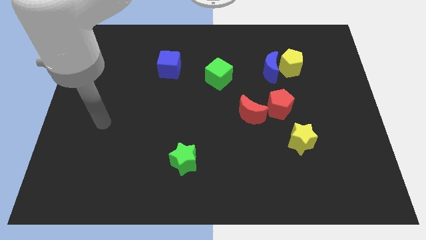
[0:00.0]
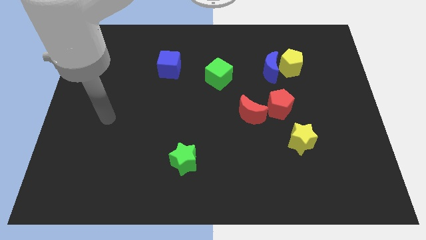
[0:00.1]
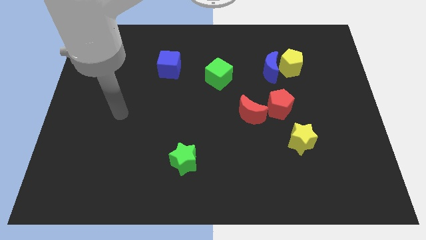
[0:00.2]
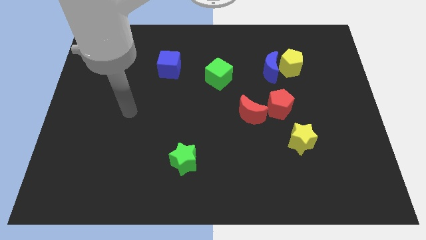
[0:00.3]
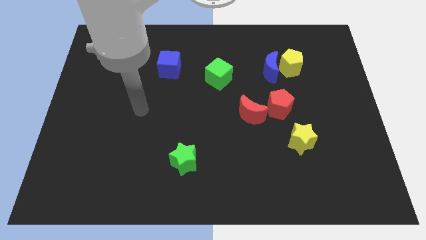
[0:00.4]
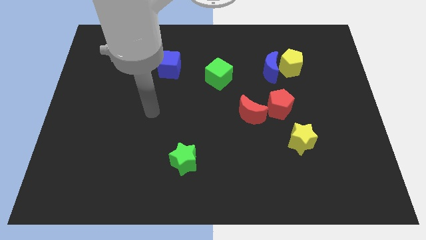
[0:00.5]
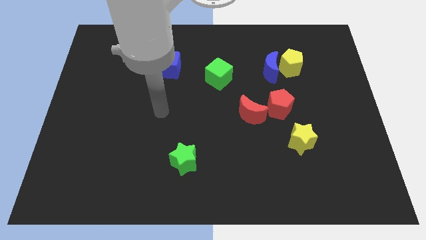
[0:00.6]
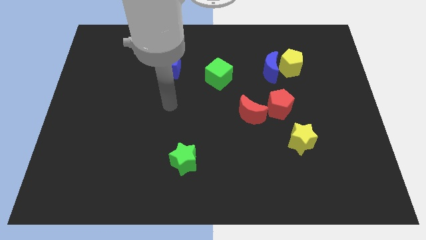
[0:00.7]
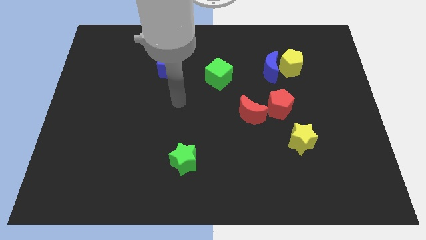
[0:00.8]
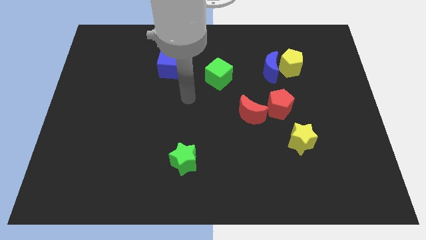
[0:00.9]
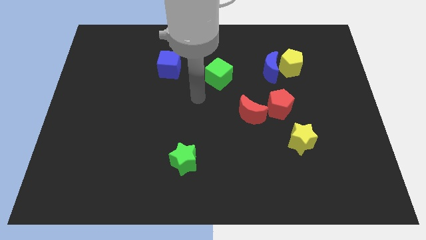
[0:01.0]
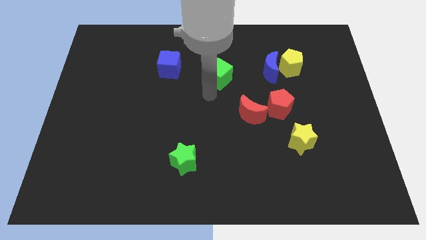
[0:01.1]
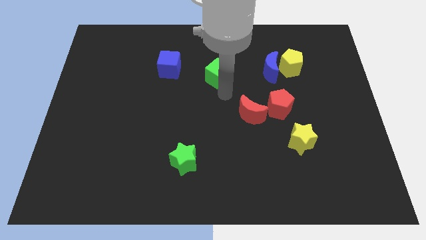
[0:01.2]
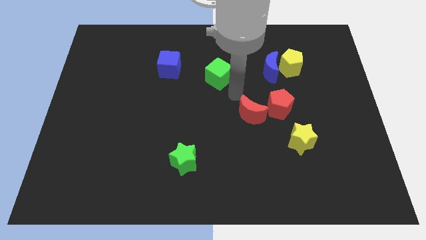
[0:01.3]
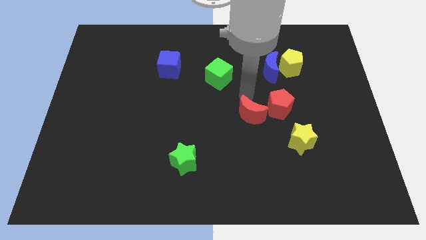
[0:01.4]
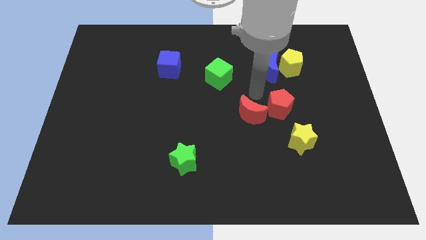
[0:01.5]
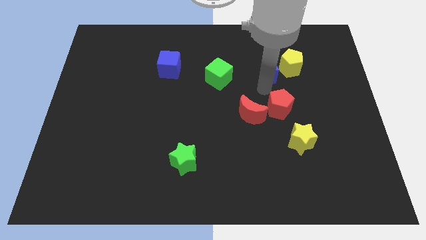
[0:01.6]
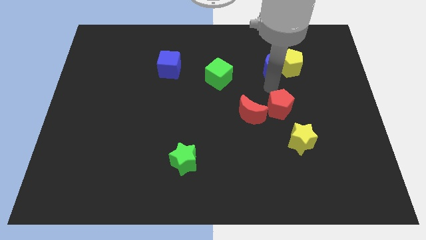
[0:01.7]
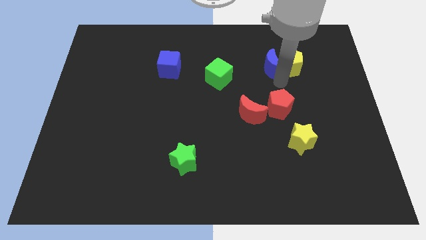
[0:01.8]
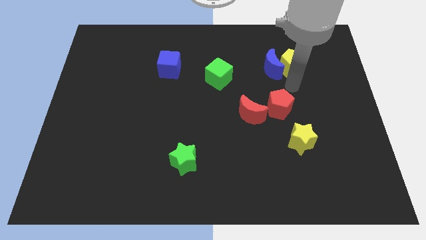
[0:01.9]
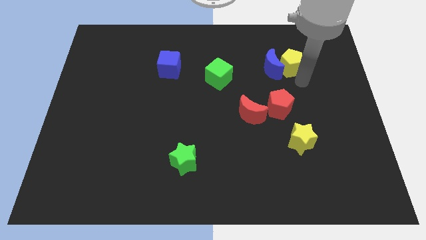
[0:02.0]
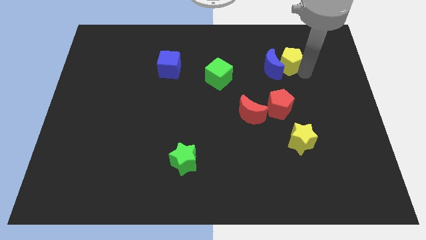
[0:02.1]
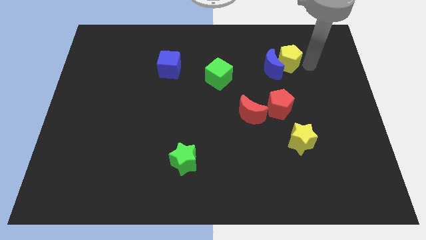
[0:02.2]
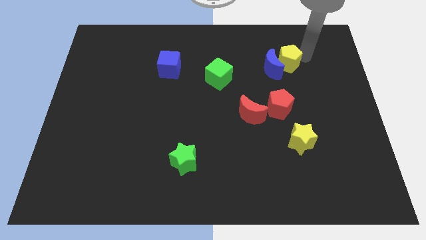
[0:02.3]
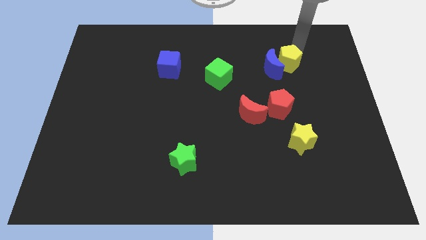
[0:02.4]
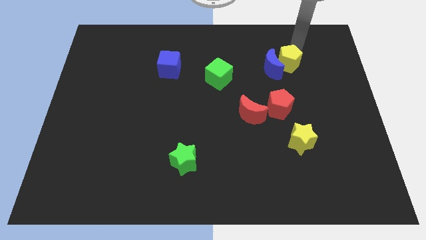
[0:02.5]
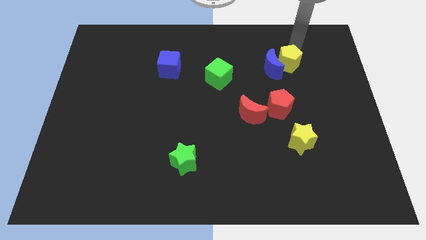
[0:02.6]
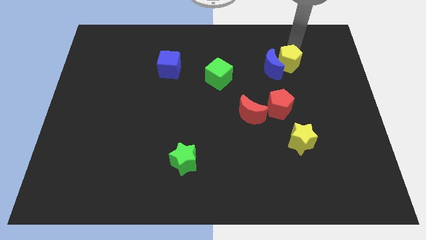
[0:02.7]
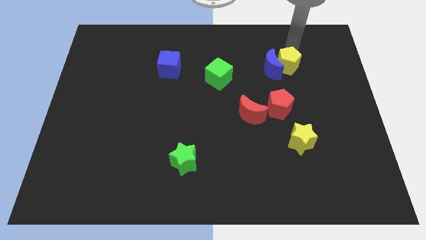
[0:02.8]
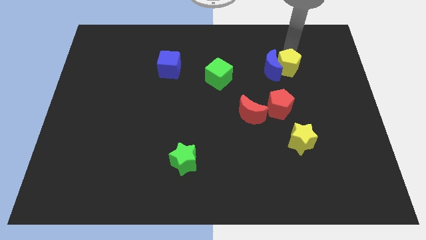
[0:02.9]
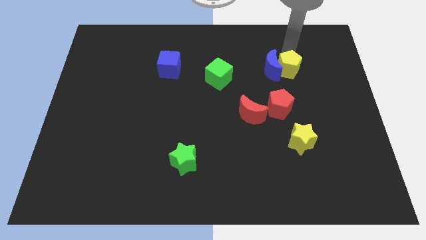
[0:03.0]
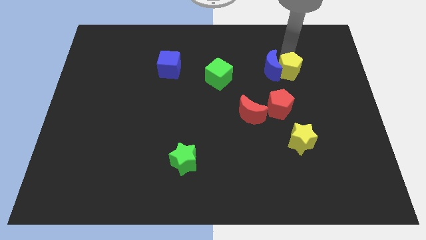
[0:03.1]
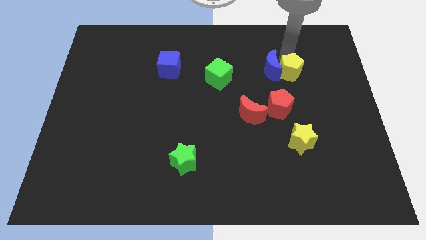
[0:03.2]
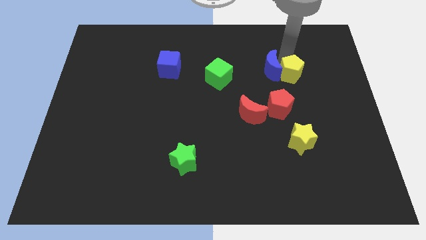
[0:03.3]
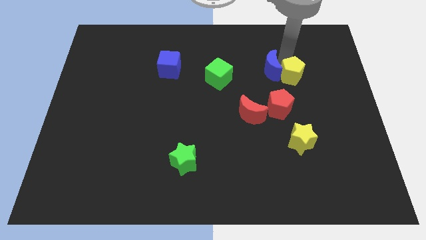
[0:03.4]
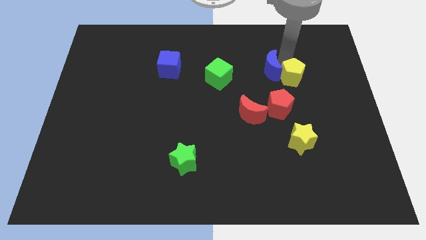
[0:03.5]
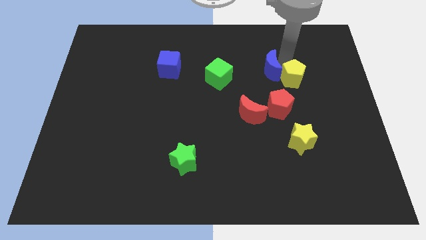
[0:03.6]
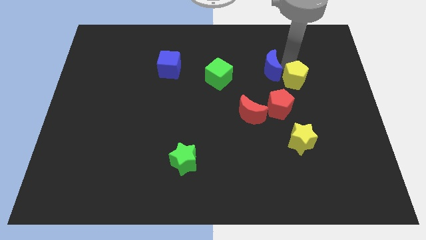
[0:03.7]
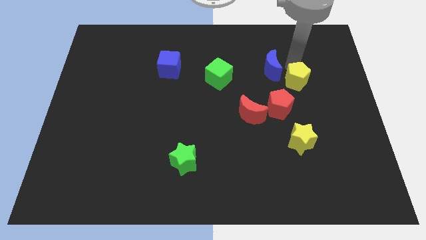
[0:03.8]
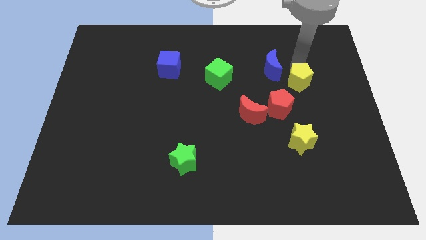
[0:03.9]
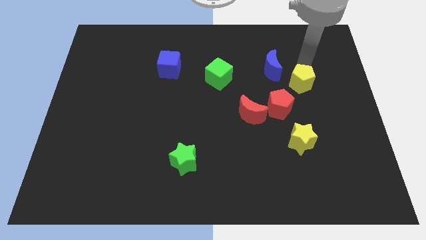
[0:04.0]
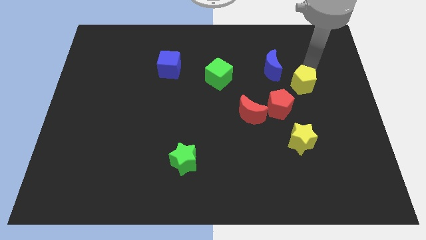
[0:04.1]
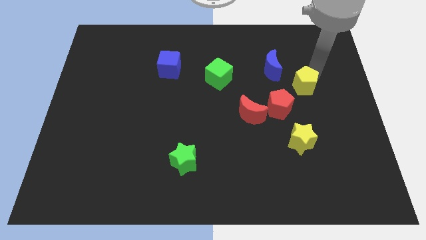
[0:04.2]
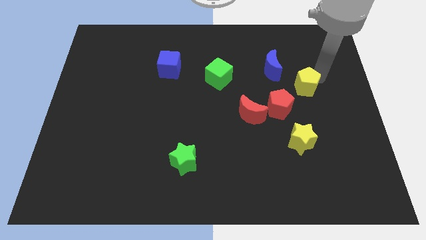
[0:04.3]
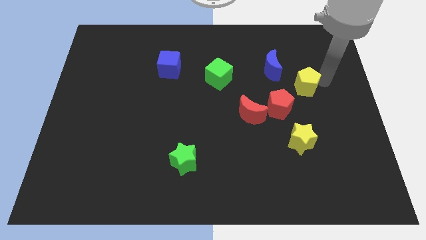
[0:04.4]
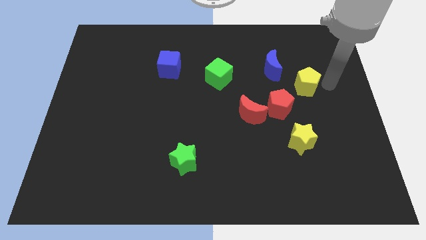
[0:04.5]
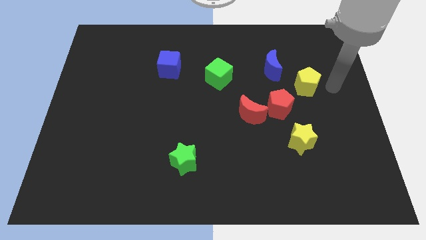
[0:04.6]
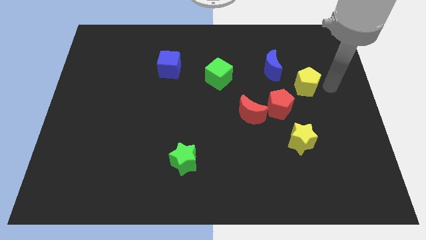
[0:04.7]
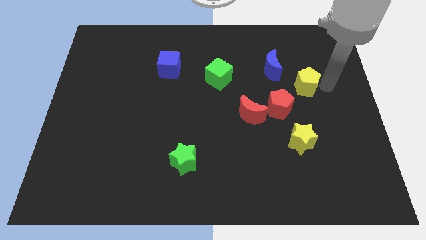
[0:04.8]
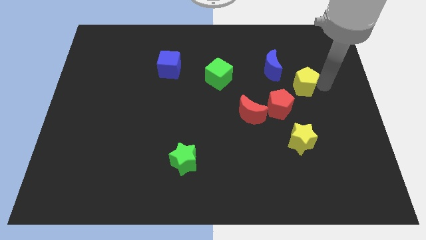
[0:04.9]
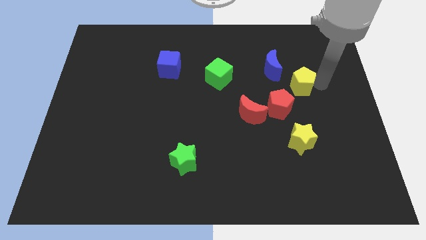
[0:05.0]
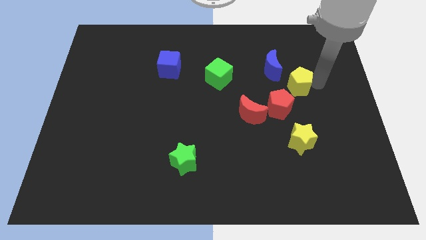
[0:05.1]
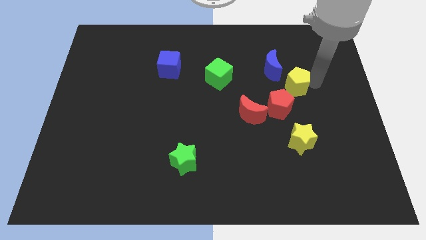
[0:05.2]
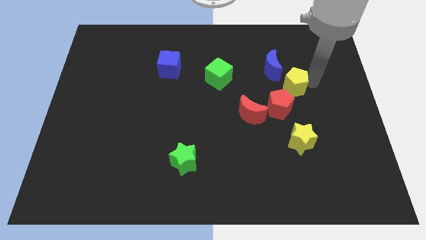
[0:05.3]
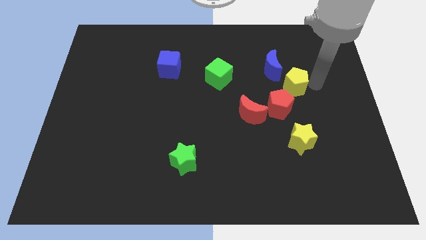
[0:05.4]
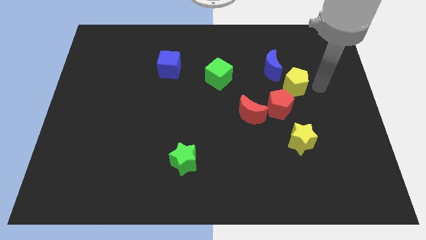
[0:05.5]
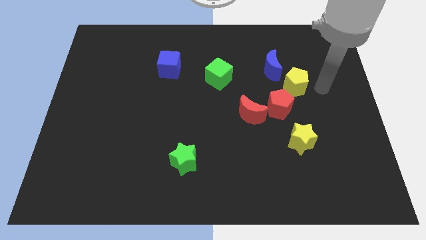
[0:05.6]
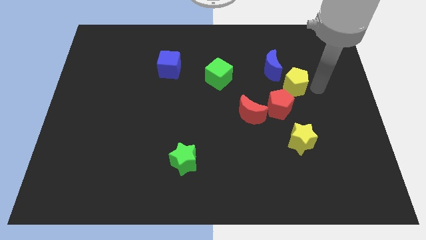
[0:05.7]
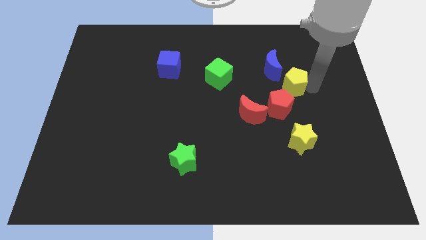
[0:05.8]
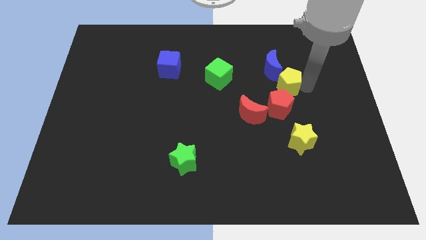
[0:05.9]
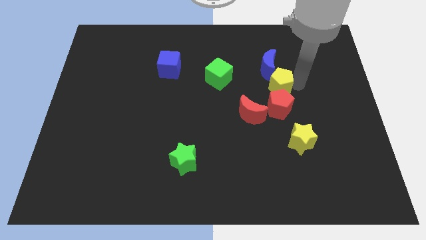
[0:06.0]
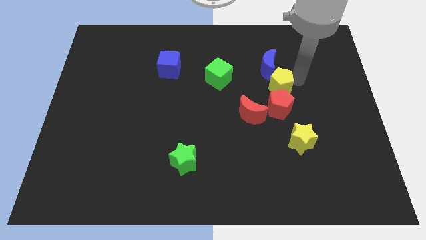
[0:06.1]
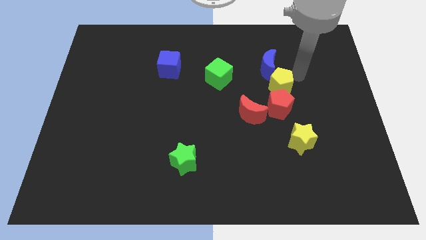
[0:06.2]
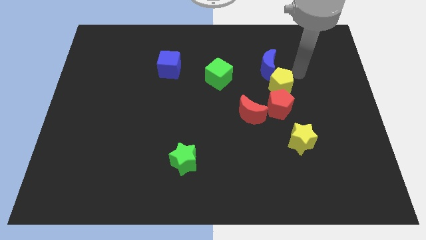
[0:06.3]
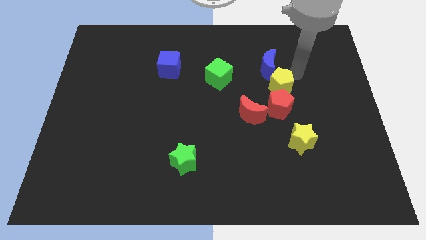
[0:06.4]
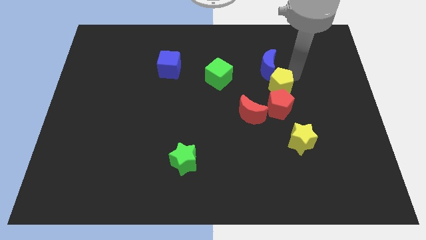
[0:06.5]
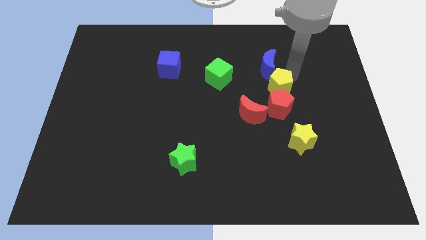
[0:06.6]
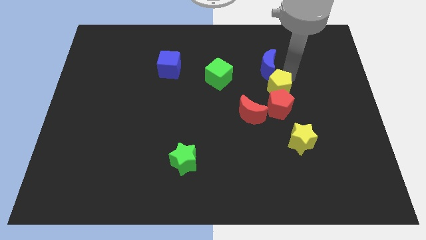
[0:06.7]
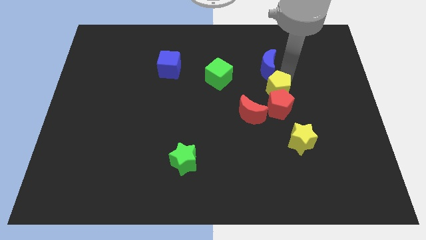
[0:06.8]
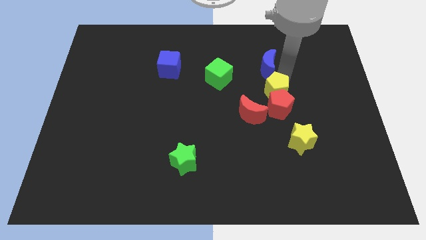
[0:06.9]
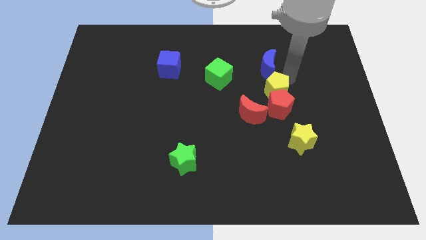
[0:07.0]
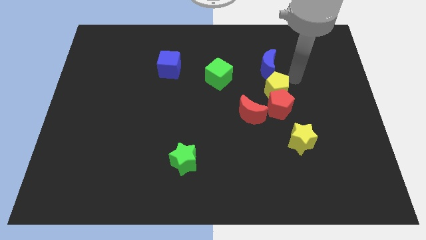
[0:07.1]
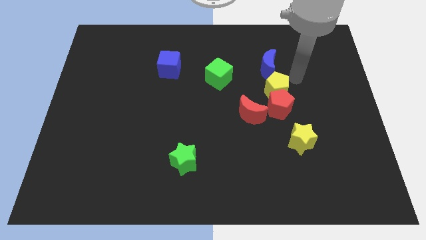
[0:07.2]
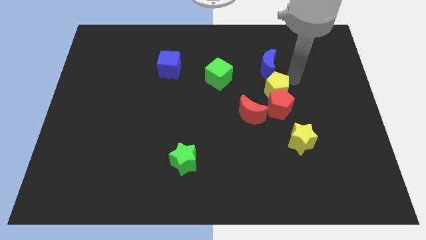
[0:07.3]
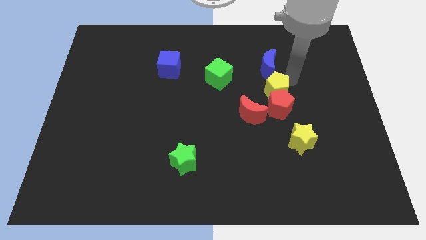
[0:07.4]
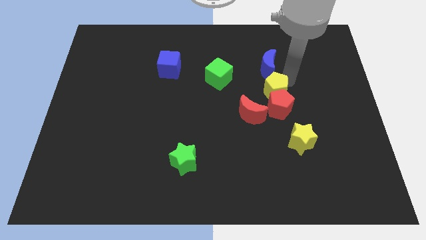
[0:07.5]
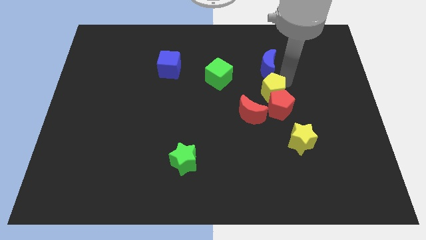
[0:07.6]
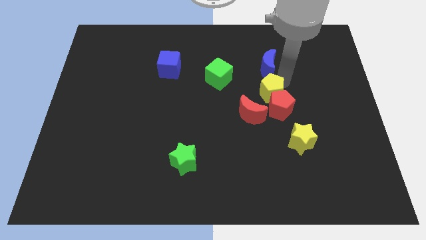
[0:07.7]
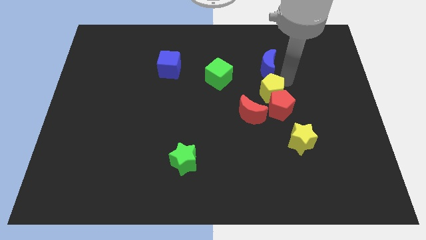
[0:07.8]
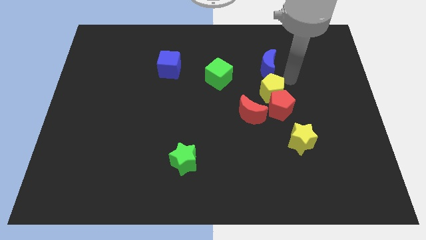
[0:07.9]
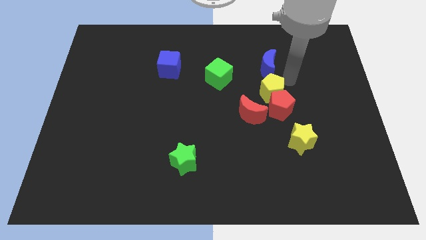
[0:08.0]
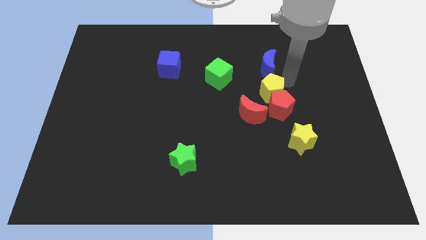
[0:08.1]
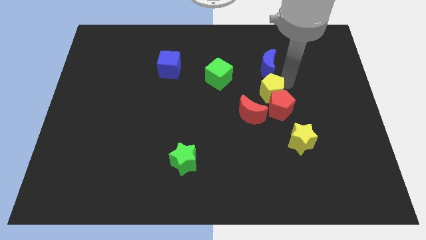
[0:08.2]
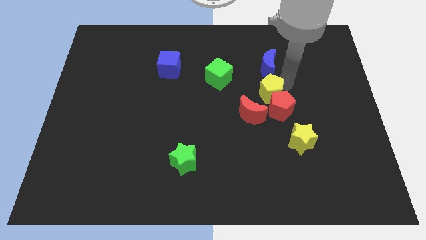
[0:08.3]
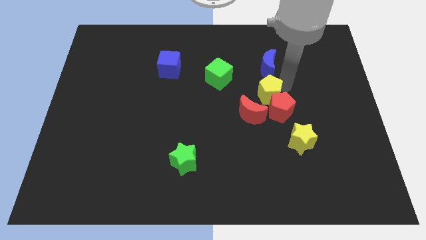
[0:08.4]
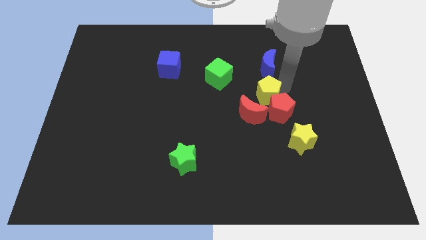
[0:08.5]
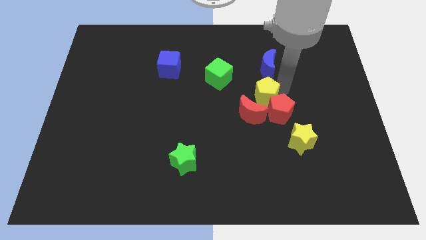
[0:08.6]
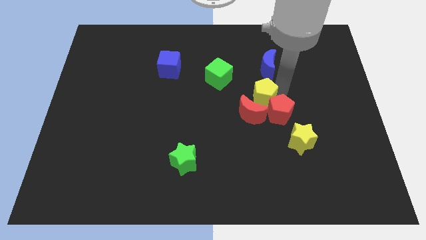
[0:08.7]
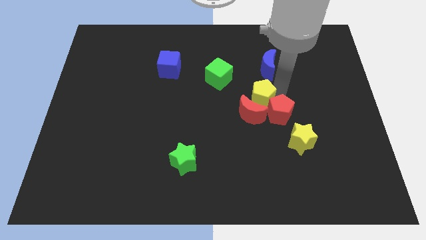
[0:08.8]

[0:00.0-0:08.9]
push the yellow pentagon next to the red moon
